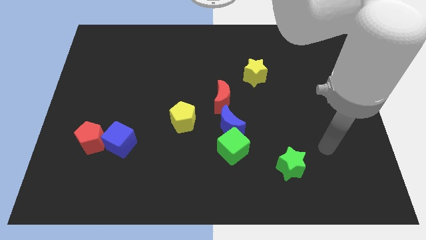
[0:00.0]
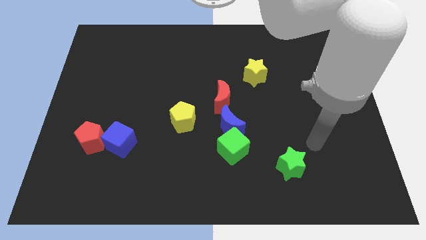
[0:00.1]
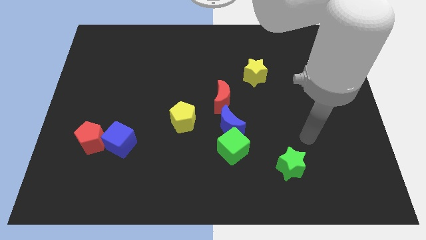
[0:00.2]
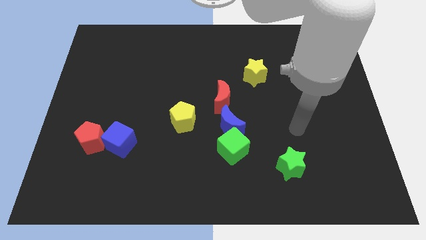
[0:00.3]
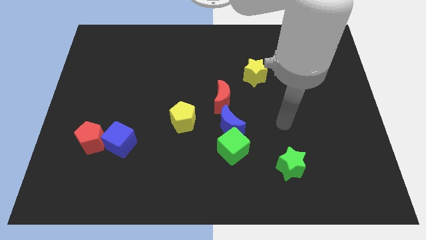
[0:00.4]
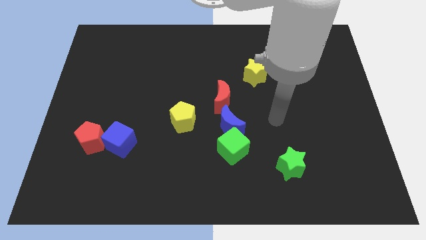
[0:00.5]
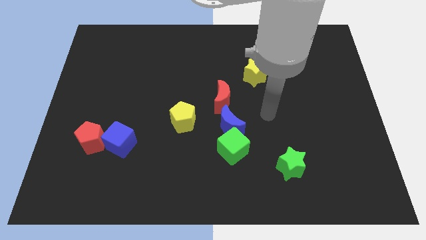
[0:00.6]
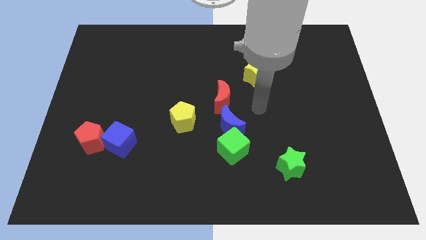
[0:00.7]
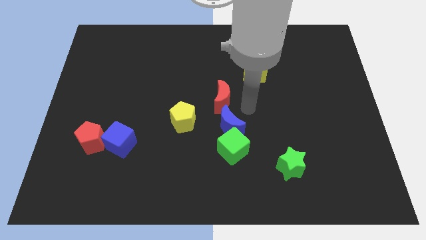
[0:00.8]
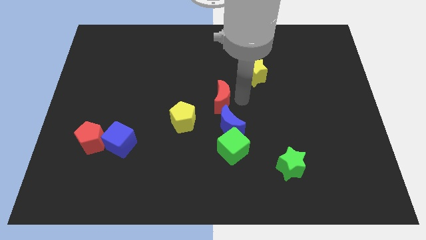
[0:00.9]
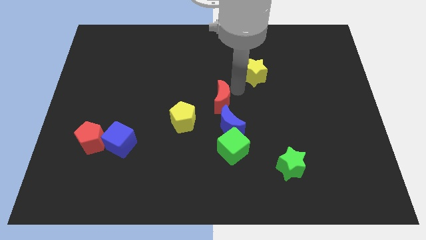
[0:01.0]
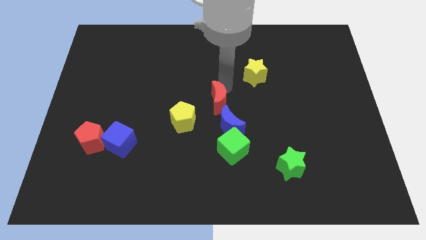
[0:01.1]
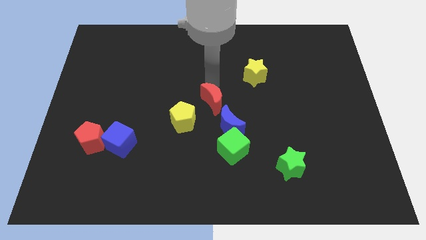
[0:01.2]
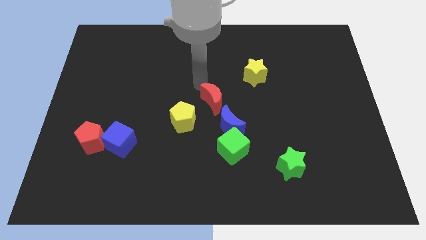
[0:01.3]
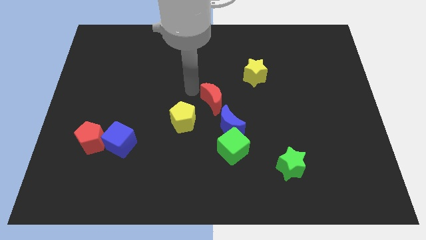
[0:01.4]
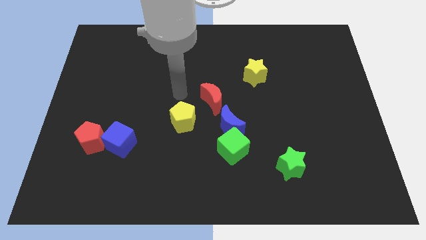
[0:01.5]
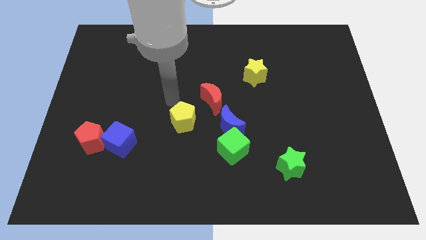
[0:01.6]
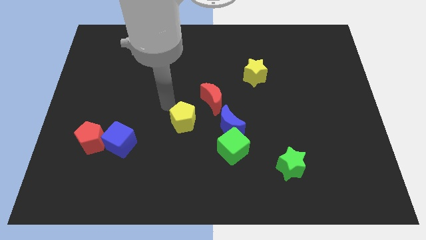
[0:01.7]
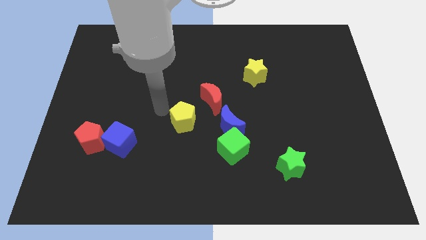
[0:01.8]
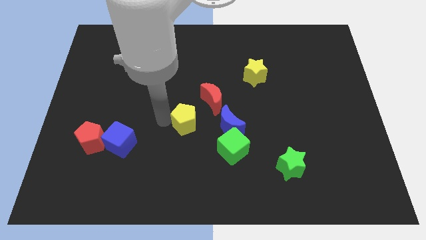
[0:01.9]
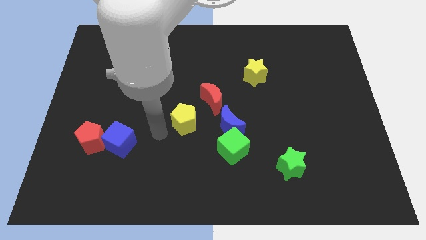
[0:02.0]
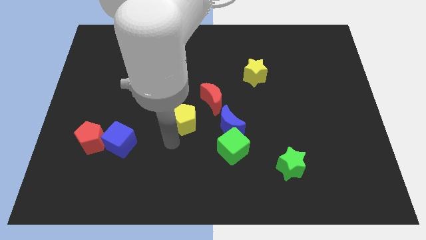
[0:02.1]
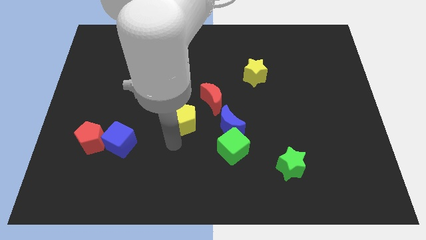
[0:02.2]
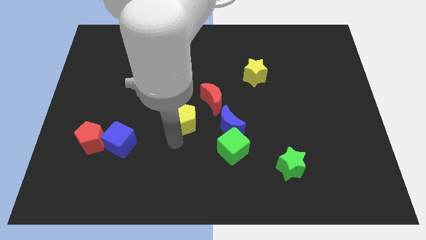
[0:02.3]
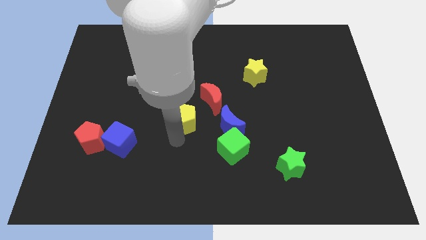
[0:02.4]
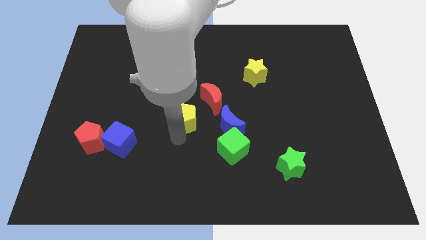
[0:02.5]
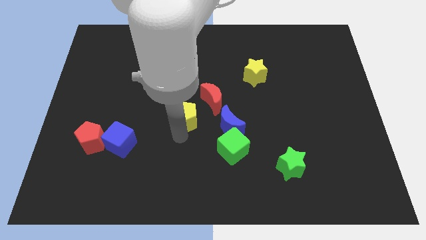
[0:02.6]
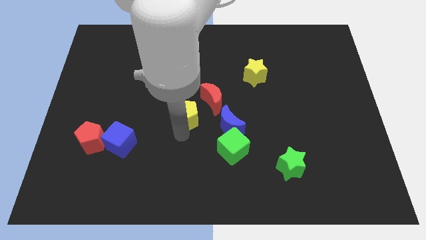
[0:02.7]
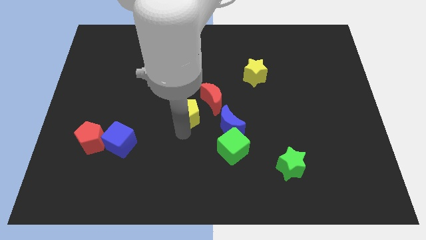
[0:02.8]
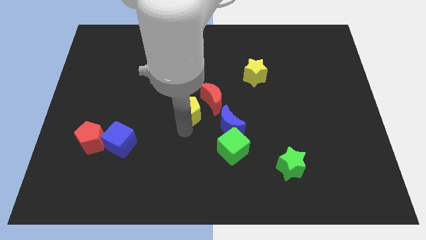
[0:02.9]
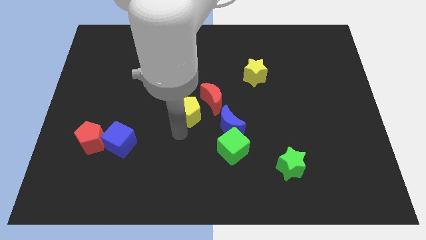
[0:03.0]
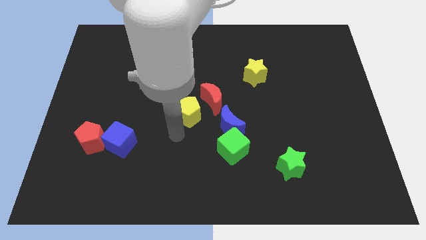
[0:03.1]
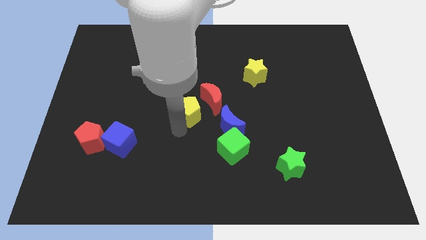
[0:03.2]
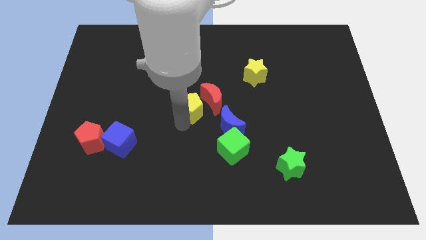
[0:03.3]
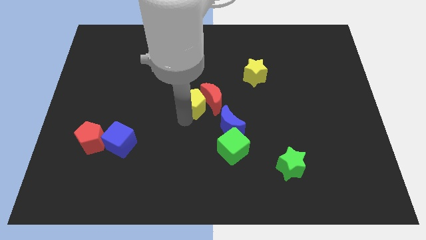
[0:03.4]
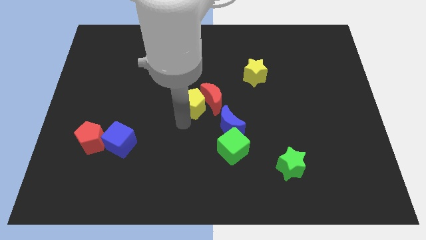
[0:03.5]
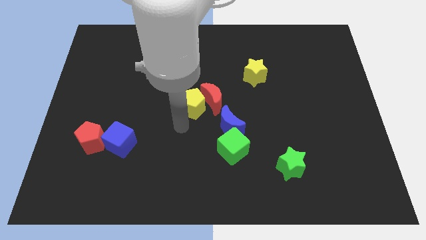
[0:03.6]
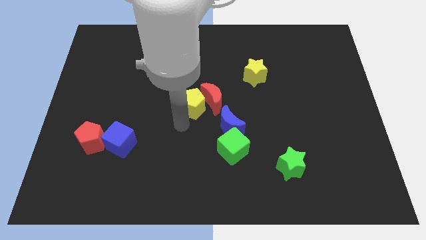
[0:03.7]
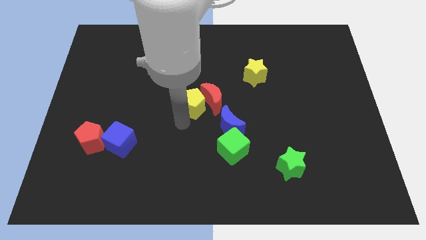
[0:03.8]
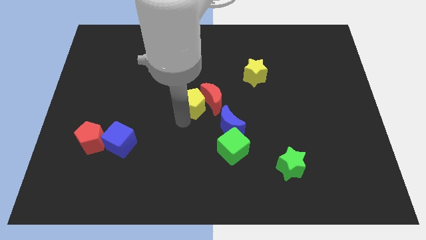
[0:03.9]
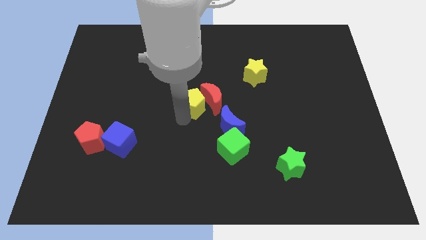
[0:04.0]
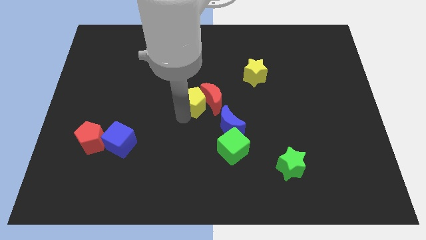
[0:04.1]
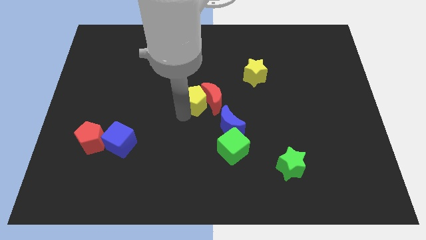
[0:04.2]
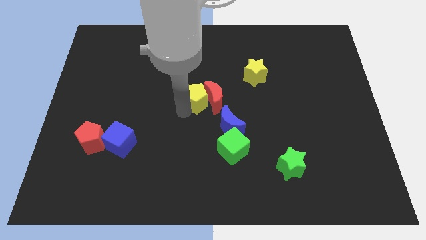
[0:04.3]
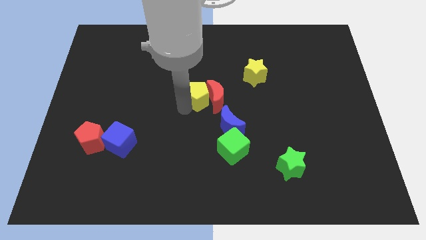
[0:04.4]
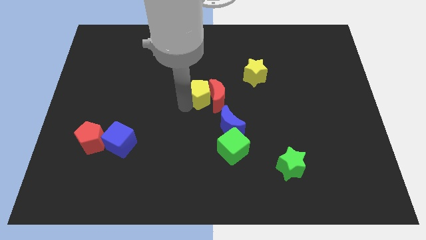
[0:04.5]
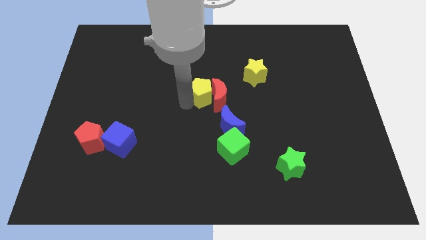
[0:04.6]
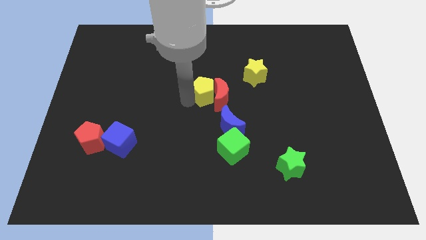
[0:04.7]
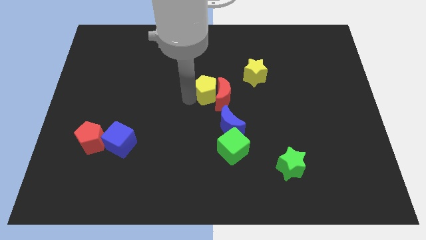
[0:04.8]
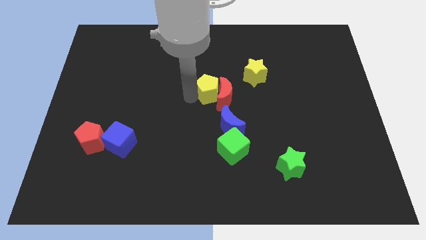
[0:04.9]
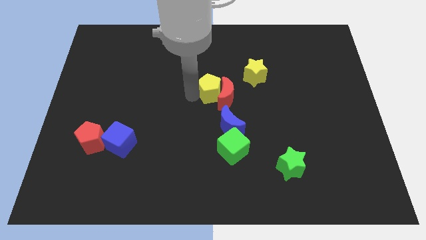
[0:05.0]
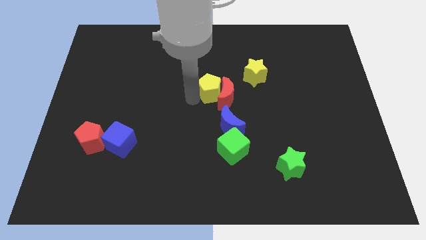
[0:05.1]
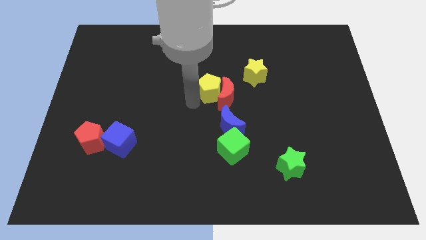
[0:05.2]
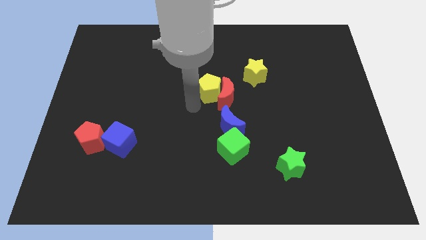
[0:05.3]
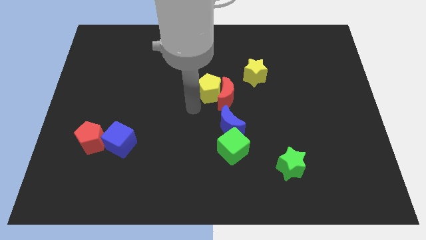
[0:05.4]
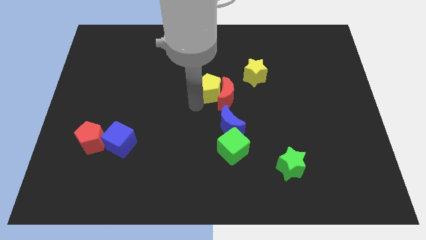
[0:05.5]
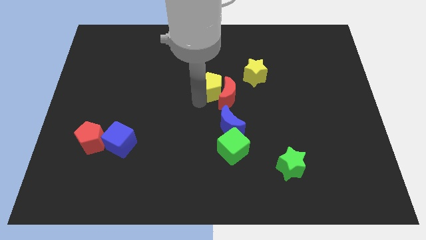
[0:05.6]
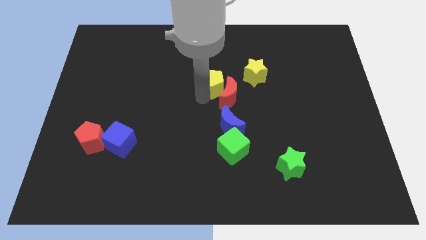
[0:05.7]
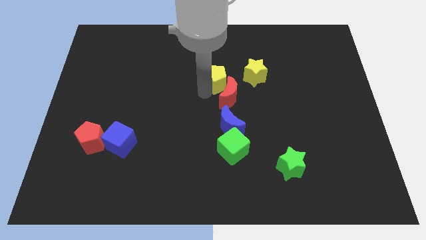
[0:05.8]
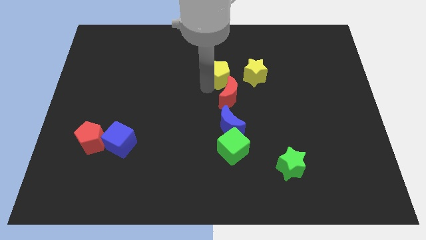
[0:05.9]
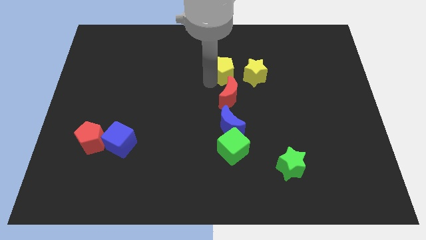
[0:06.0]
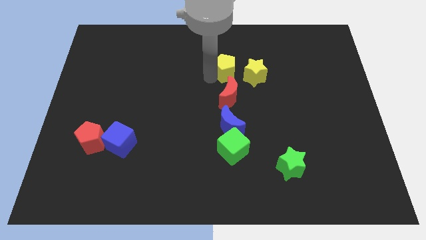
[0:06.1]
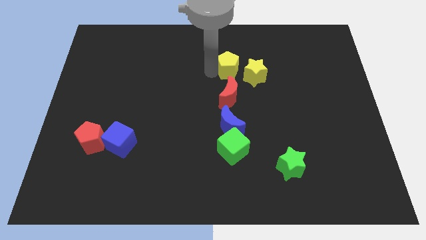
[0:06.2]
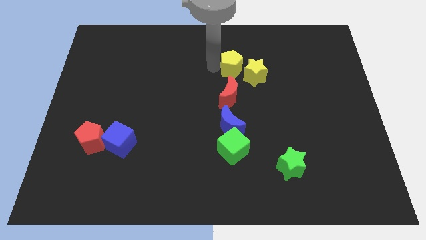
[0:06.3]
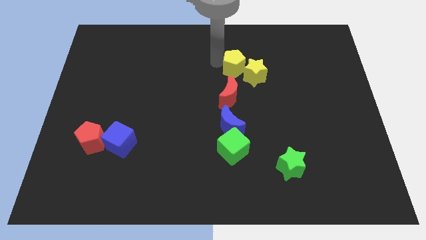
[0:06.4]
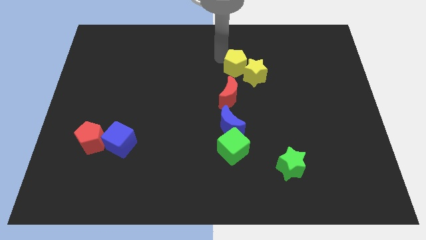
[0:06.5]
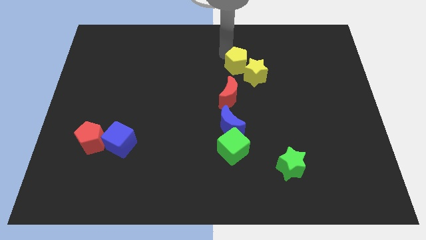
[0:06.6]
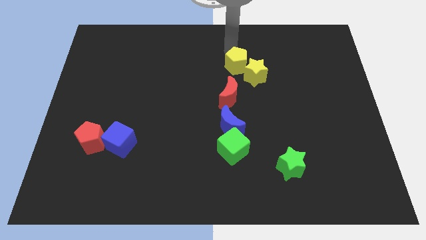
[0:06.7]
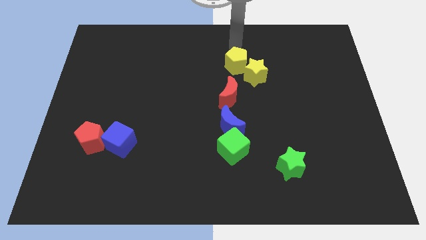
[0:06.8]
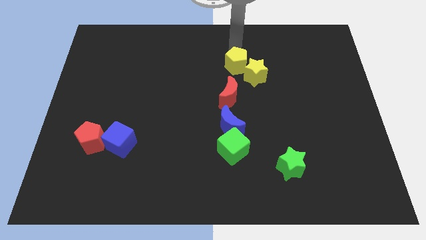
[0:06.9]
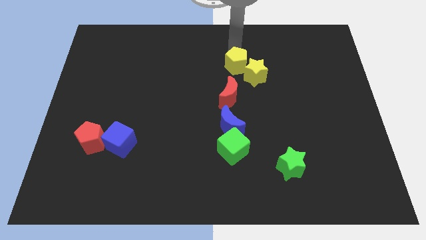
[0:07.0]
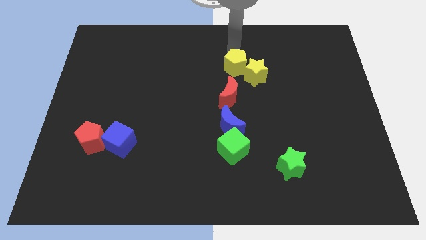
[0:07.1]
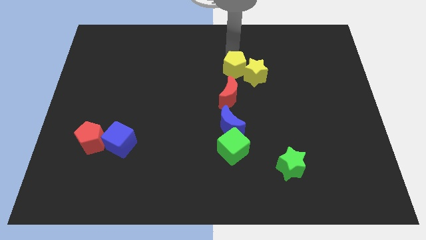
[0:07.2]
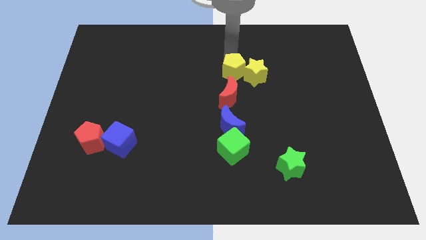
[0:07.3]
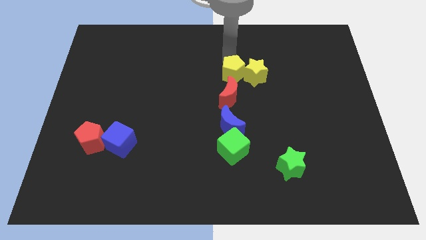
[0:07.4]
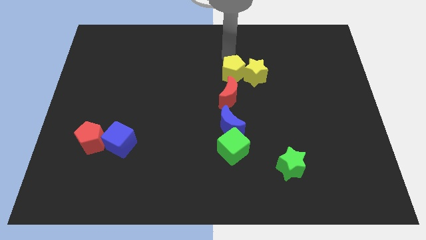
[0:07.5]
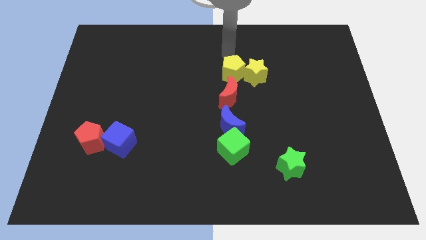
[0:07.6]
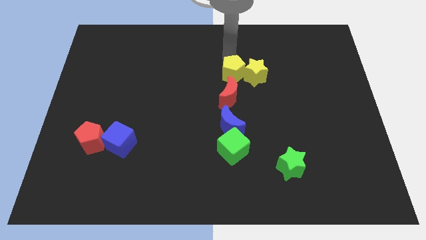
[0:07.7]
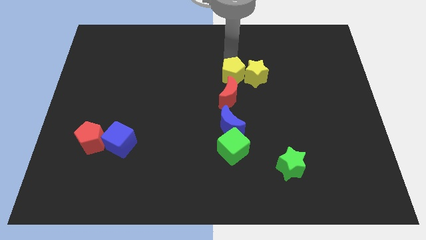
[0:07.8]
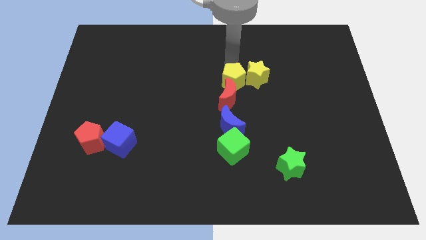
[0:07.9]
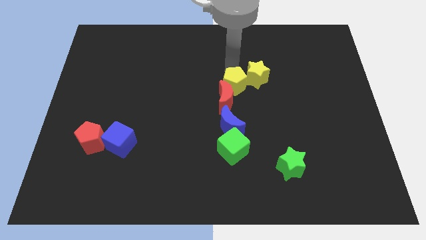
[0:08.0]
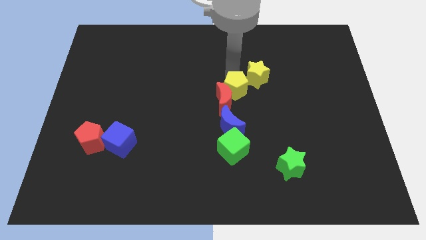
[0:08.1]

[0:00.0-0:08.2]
slide the yellow pentagon just right of the red moon
